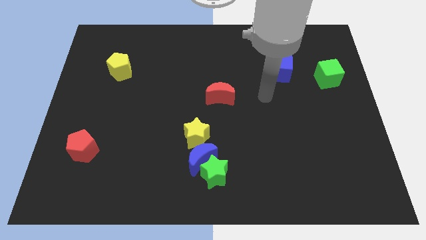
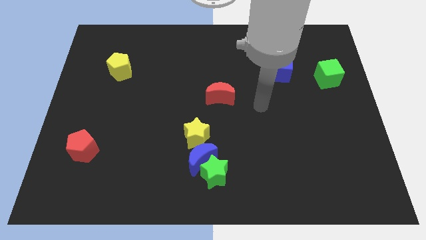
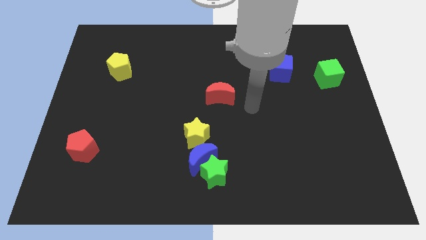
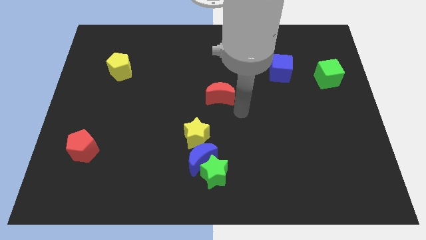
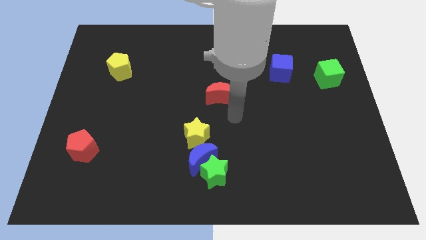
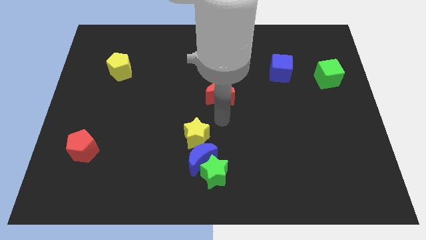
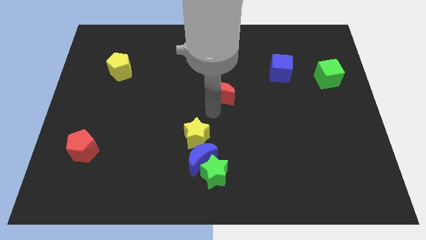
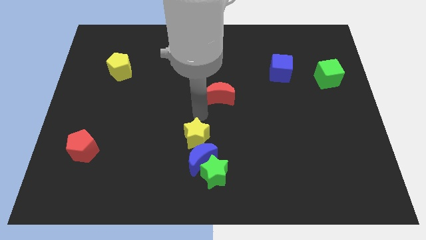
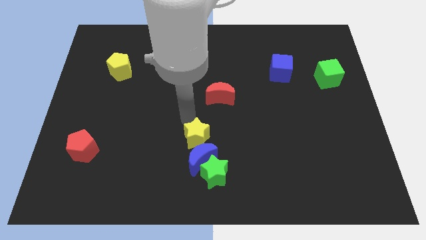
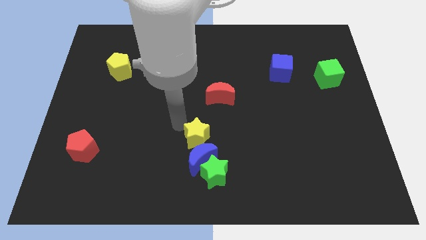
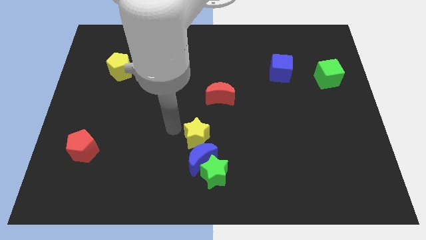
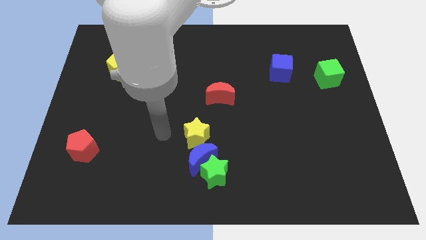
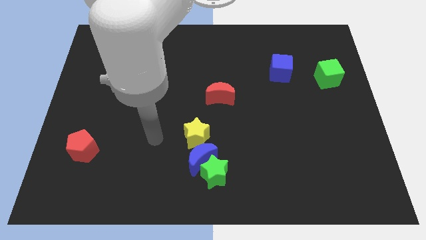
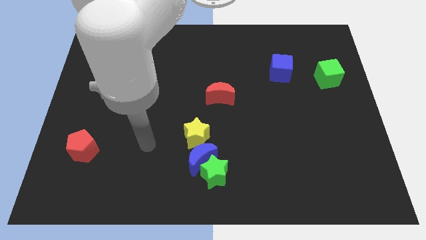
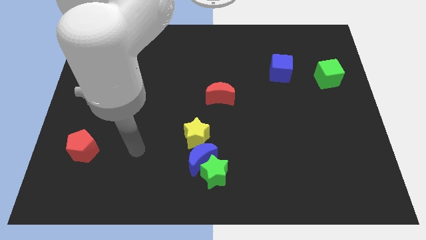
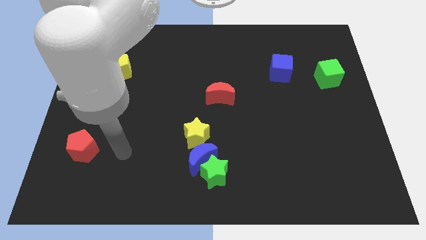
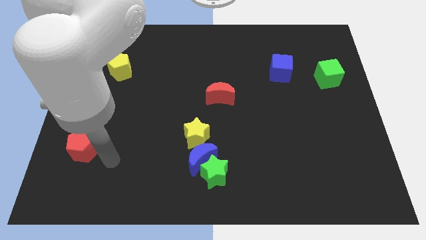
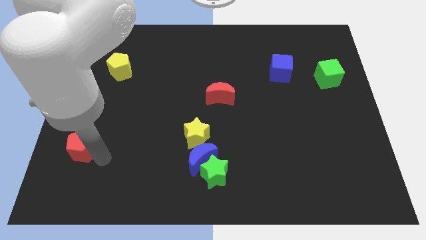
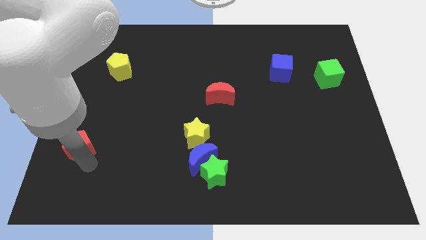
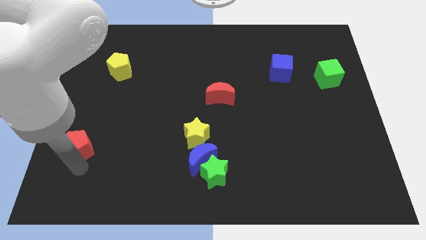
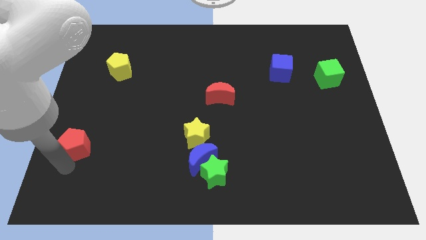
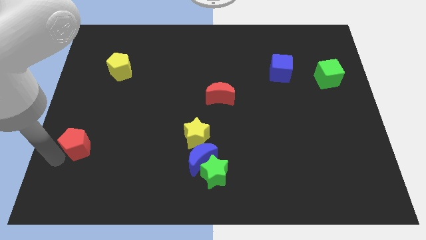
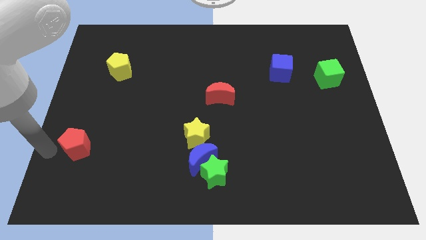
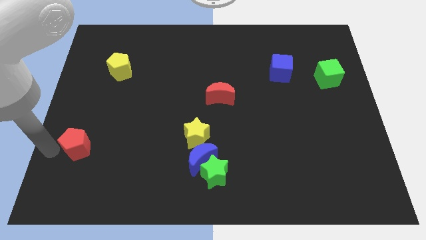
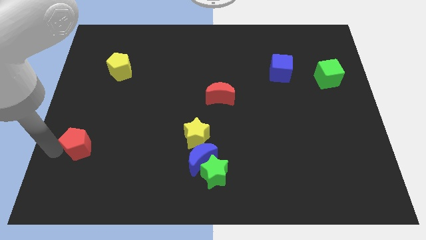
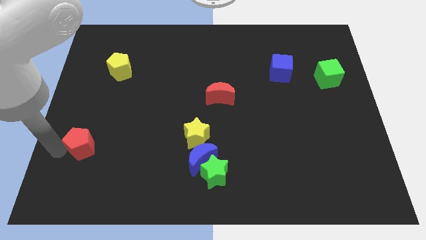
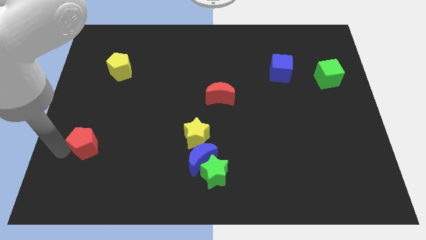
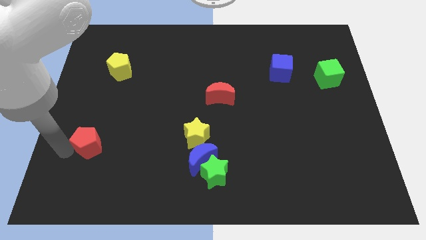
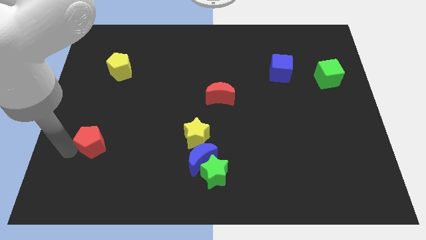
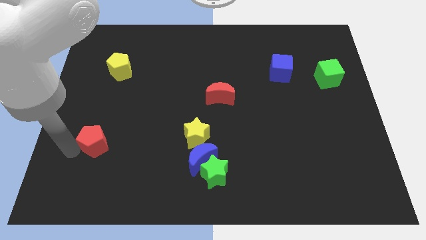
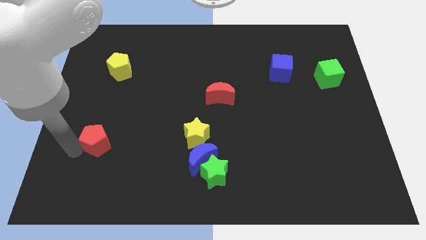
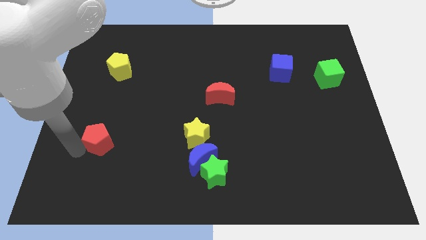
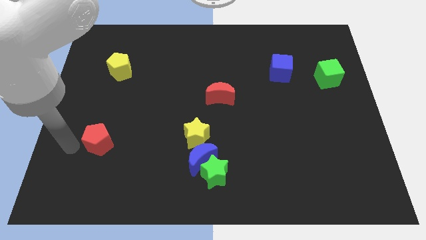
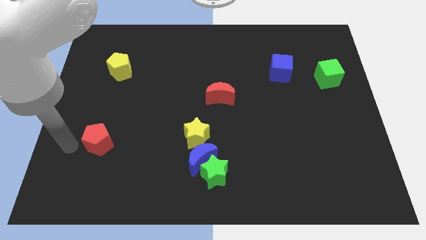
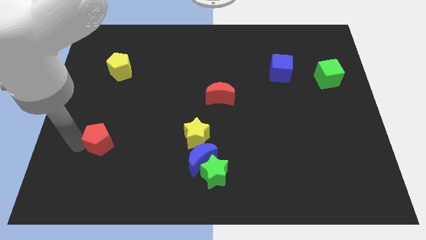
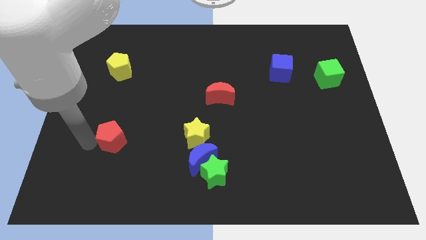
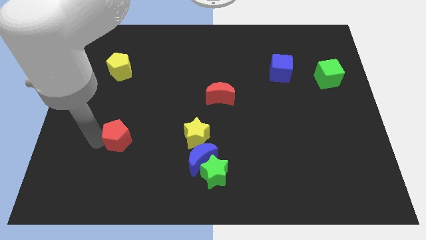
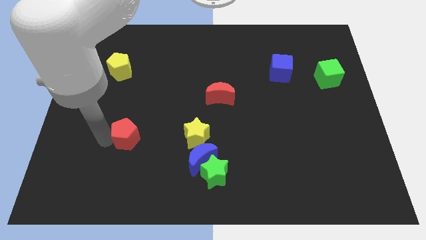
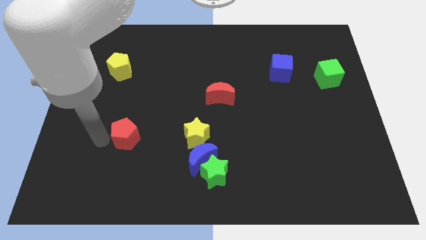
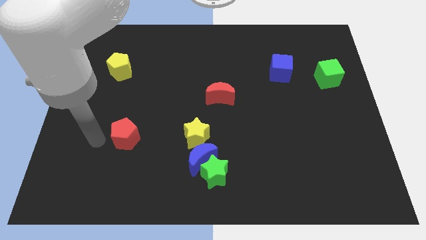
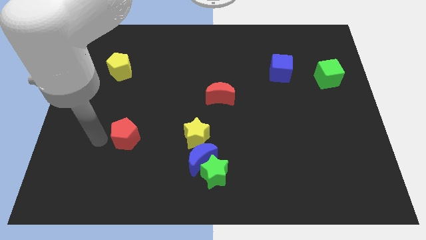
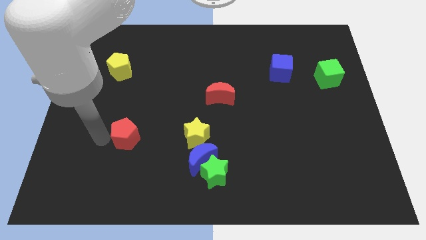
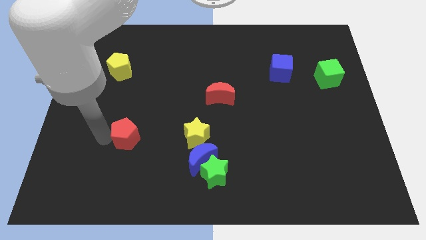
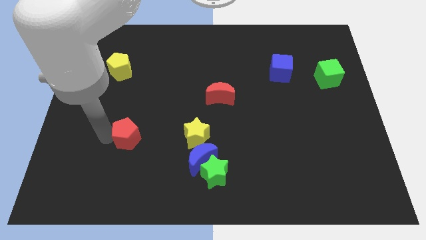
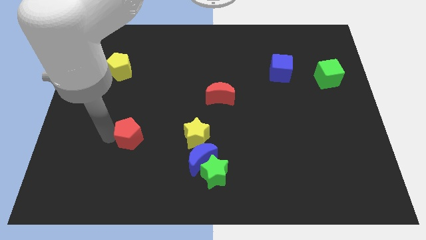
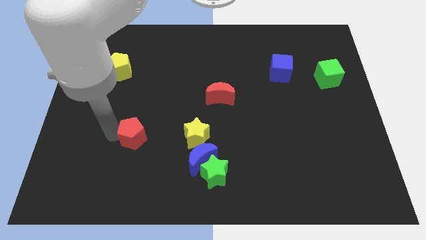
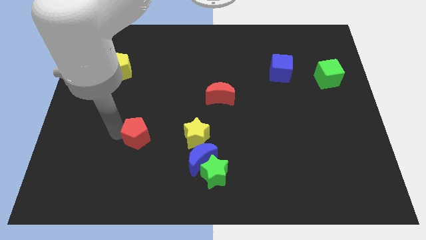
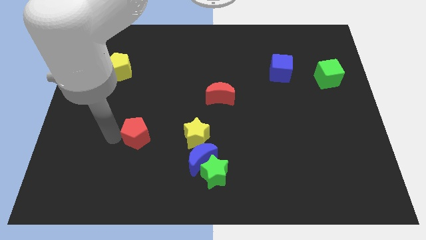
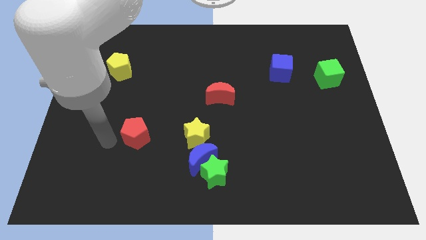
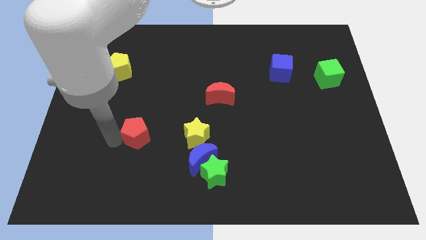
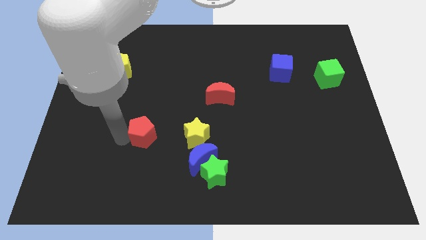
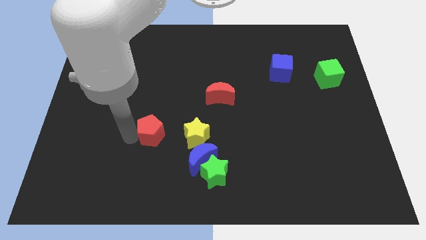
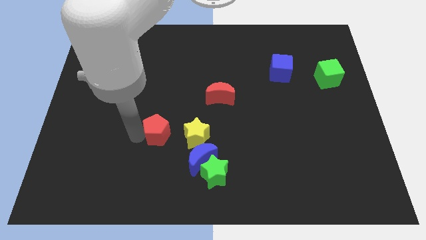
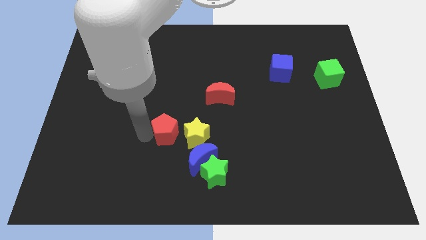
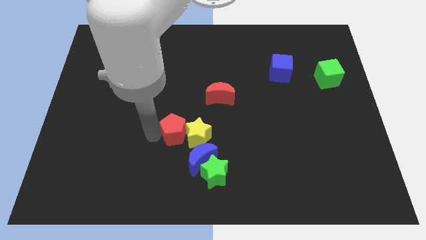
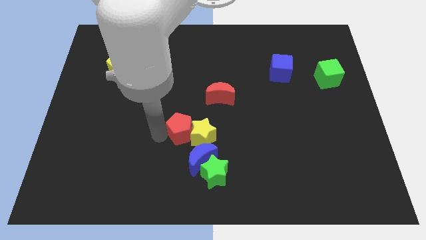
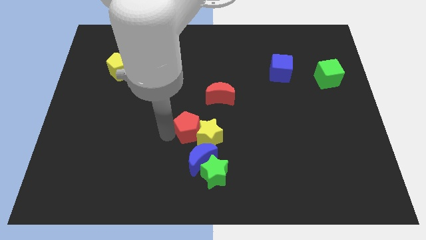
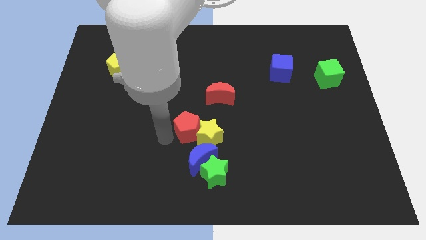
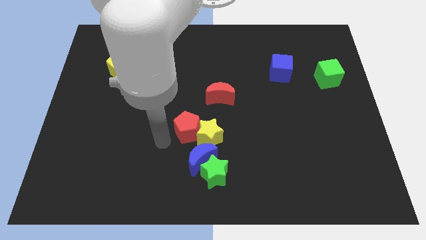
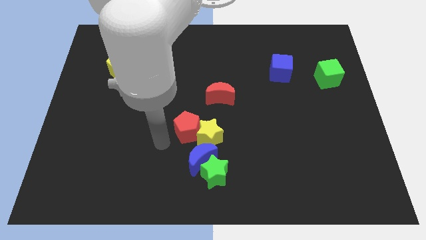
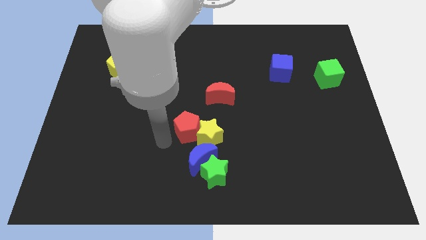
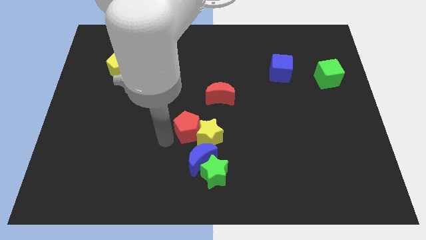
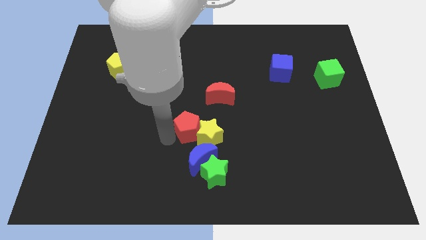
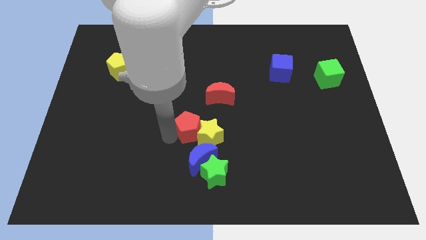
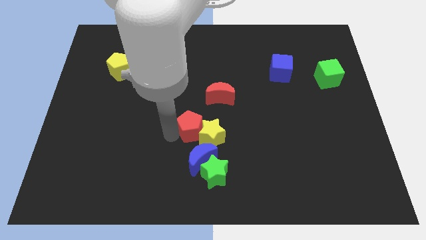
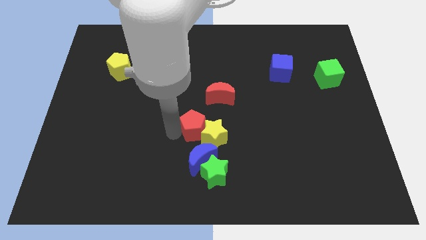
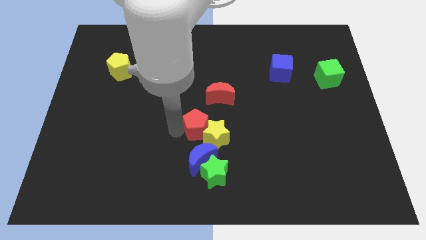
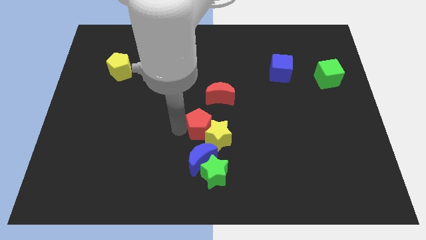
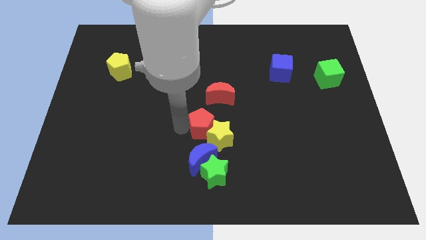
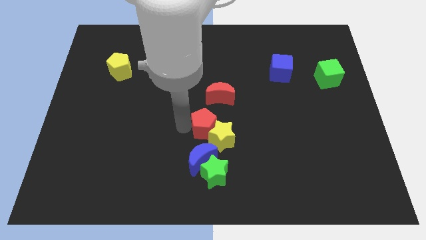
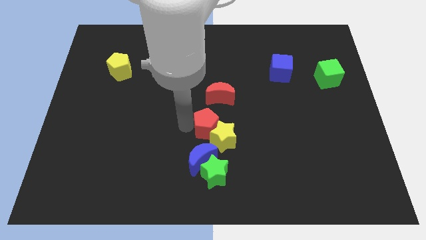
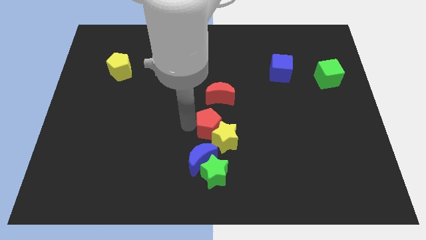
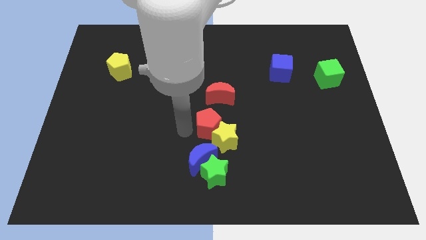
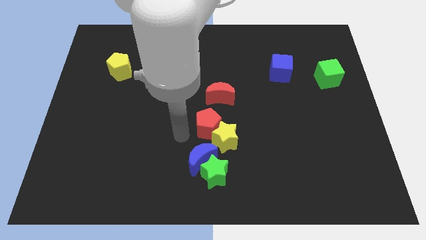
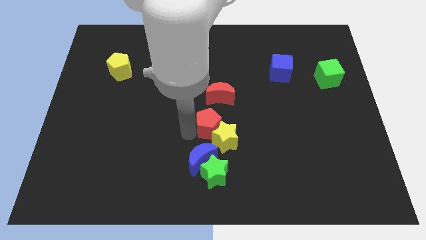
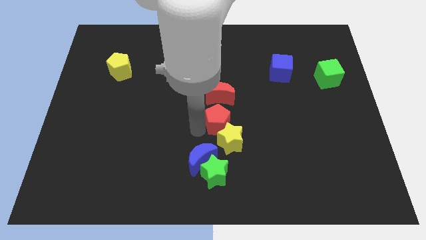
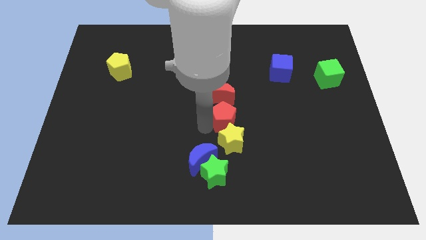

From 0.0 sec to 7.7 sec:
put the red pentagon diagonally down and to the right of the red moon
